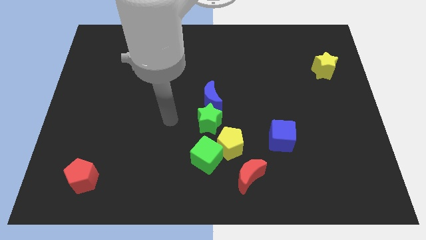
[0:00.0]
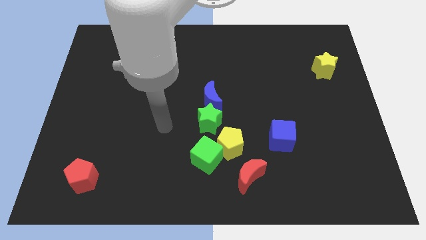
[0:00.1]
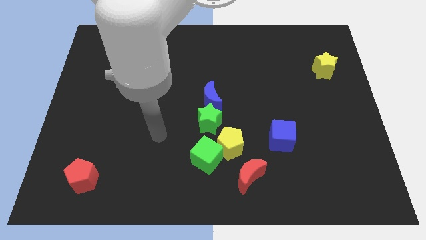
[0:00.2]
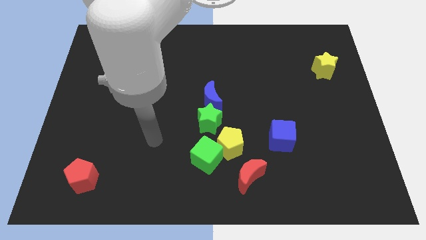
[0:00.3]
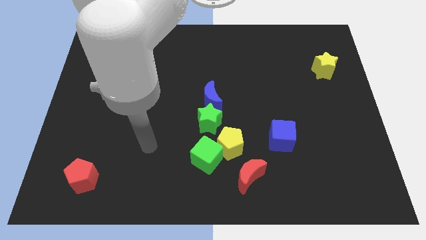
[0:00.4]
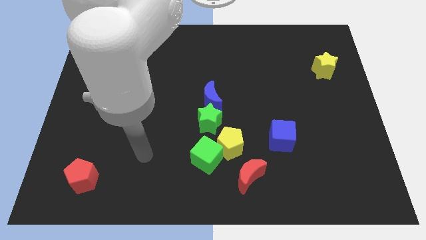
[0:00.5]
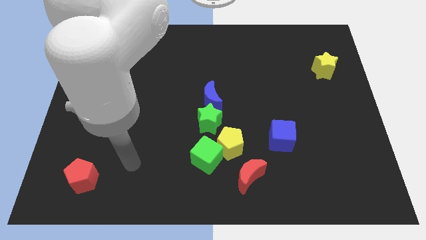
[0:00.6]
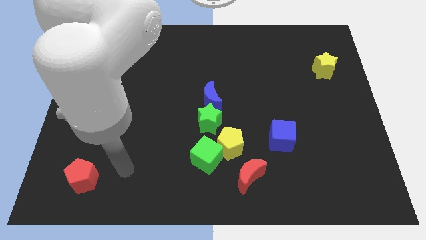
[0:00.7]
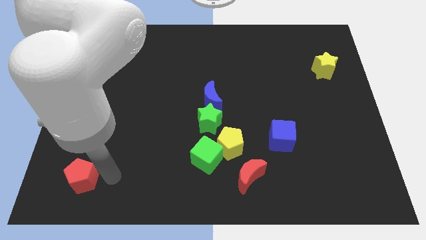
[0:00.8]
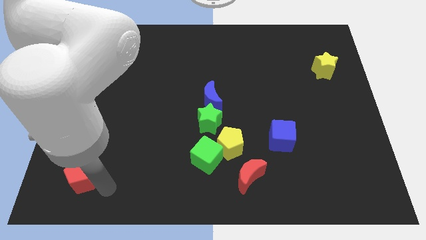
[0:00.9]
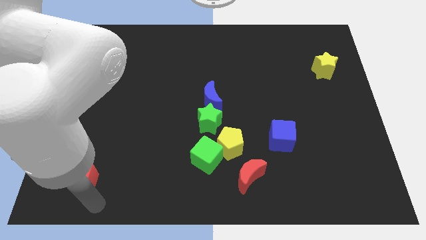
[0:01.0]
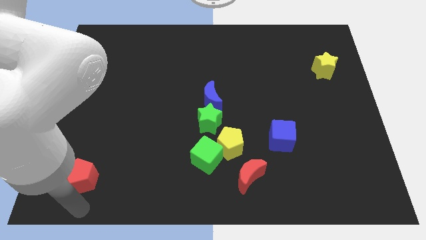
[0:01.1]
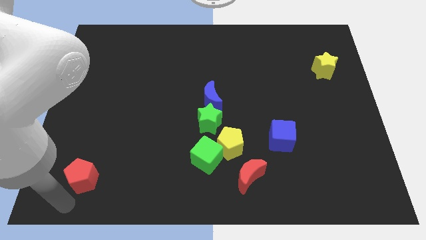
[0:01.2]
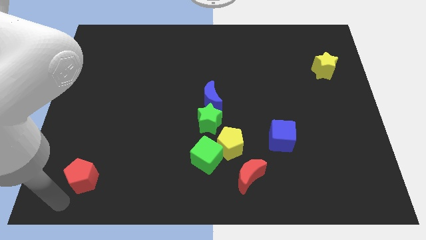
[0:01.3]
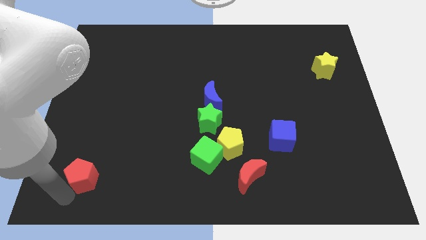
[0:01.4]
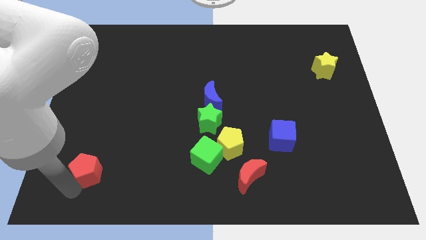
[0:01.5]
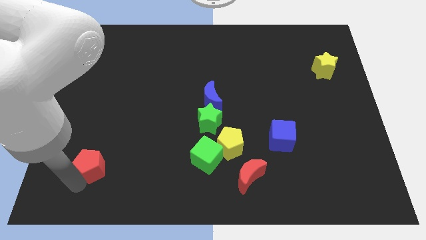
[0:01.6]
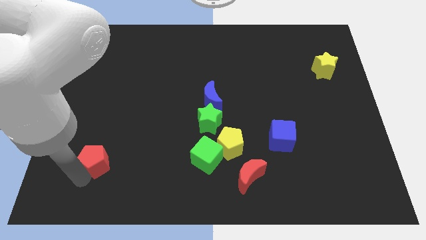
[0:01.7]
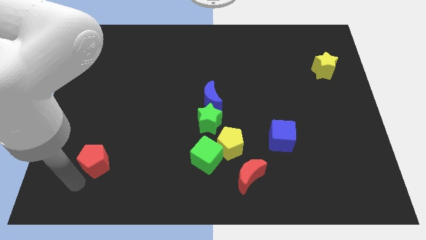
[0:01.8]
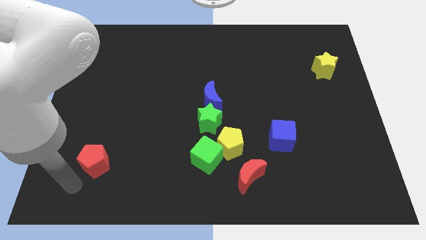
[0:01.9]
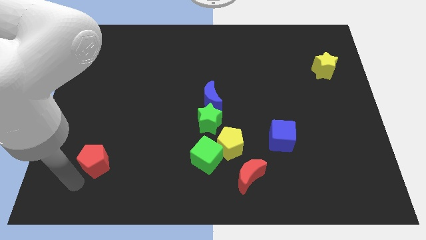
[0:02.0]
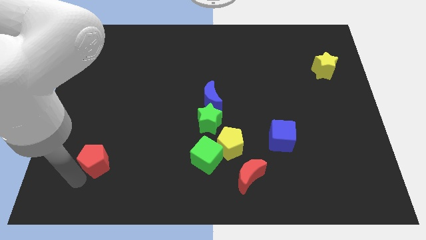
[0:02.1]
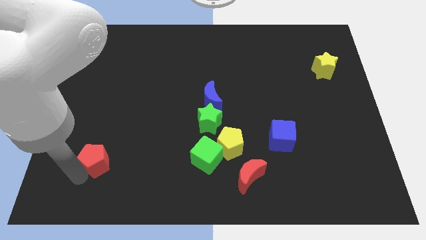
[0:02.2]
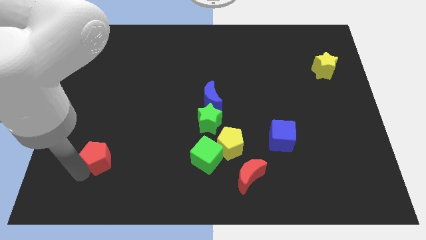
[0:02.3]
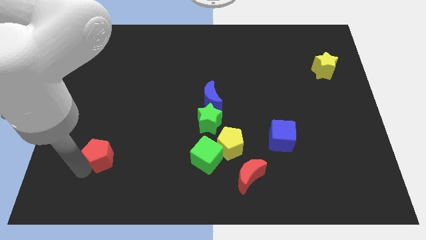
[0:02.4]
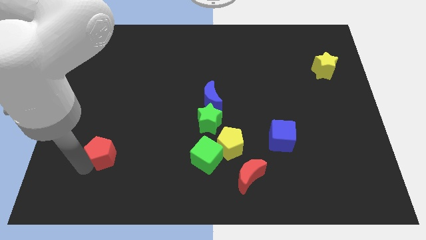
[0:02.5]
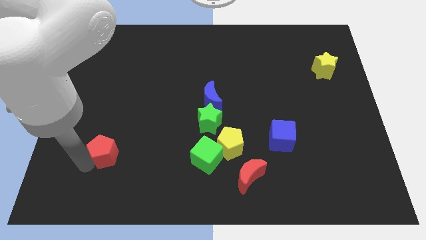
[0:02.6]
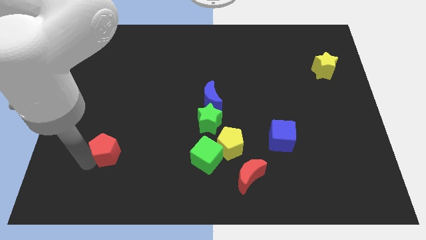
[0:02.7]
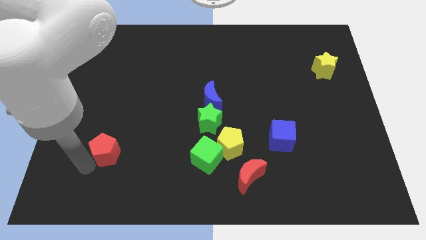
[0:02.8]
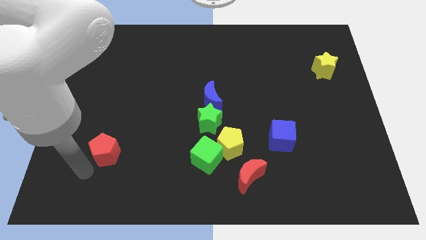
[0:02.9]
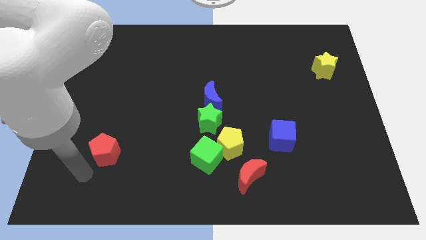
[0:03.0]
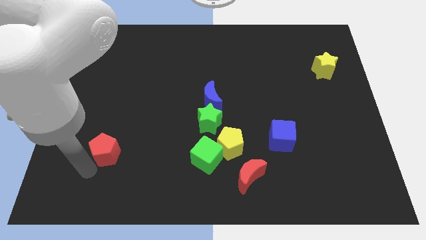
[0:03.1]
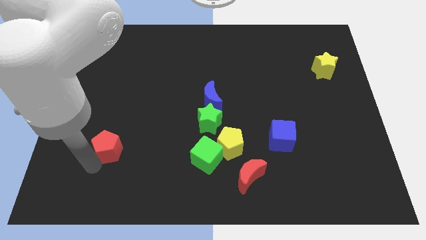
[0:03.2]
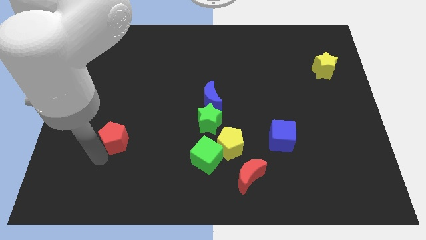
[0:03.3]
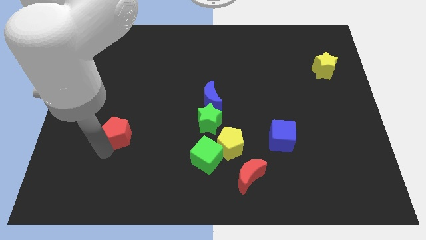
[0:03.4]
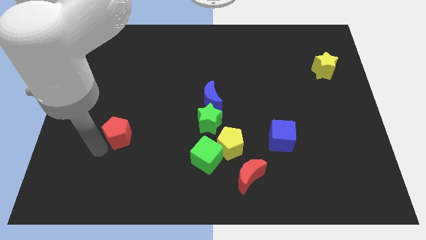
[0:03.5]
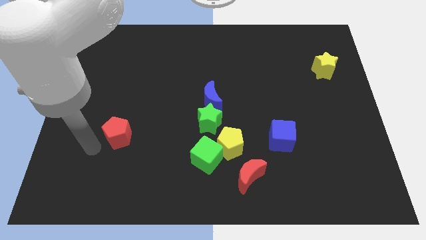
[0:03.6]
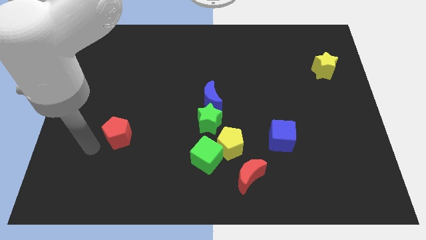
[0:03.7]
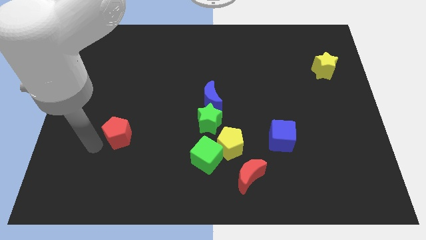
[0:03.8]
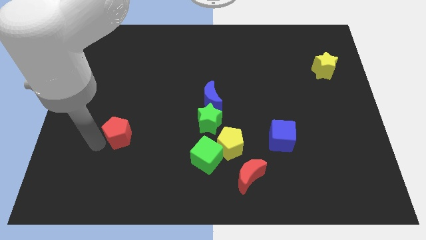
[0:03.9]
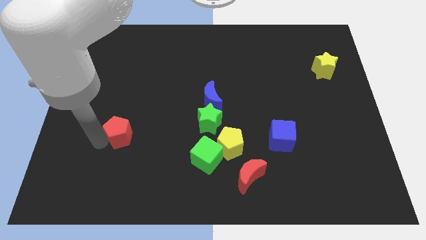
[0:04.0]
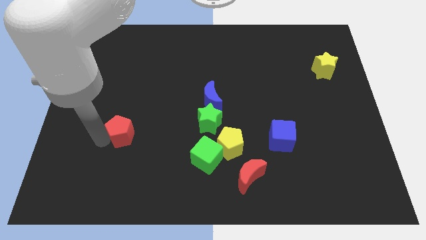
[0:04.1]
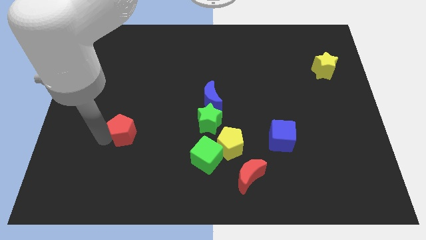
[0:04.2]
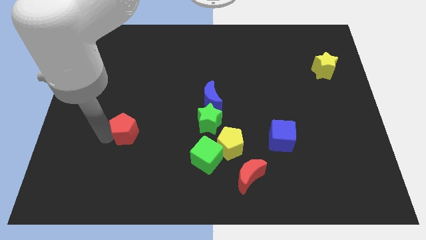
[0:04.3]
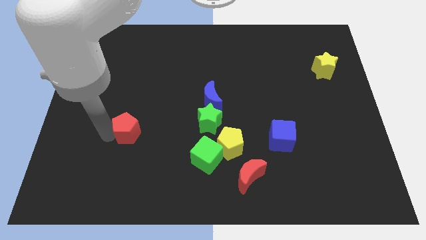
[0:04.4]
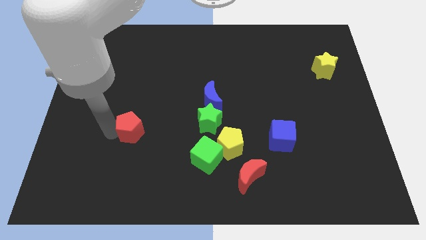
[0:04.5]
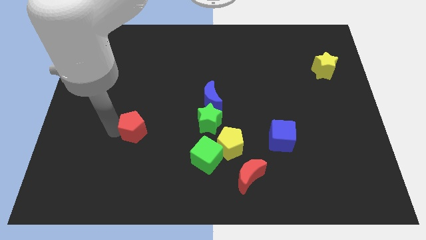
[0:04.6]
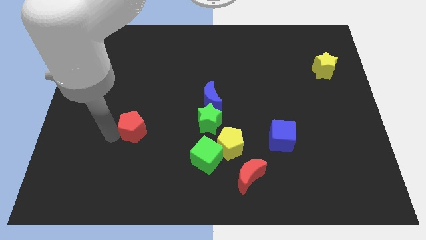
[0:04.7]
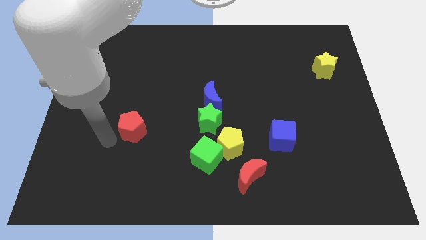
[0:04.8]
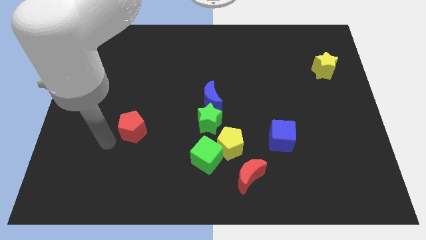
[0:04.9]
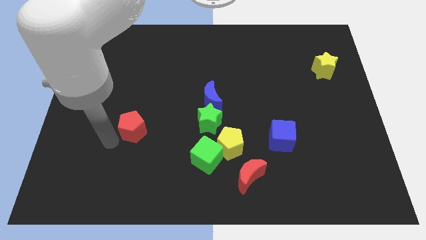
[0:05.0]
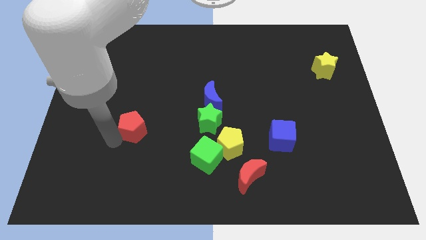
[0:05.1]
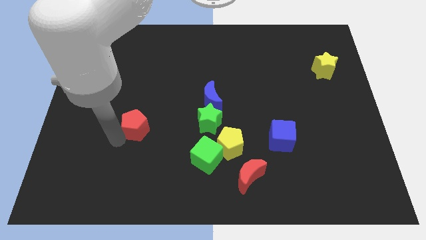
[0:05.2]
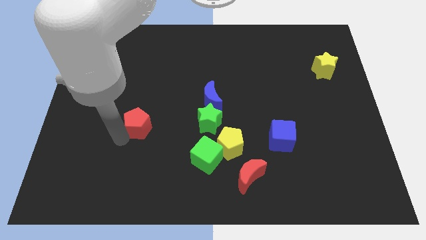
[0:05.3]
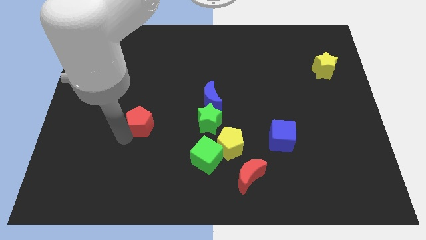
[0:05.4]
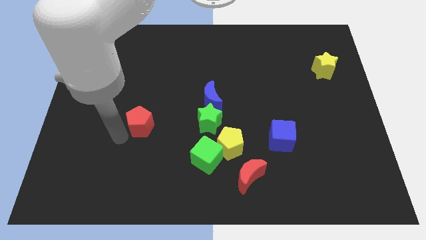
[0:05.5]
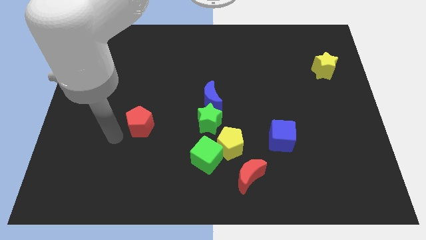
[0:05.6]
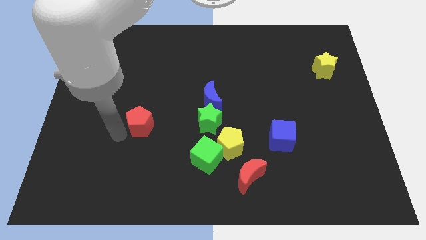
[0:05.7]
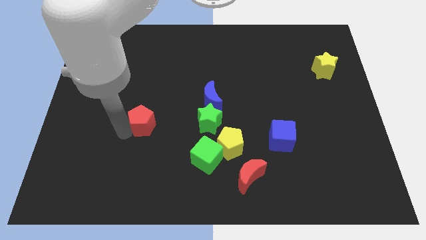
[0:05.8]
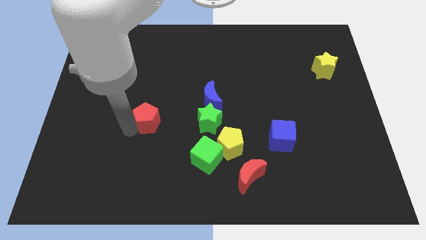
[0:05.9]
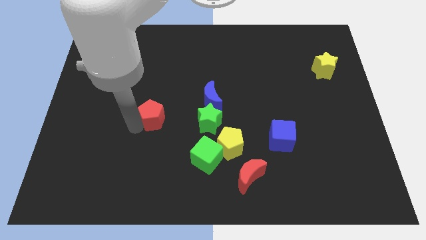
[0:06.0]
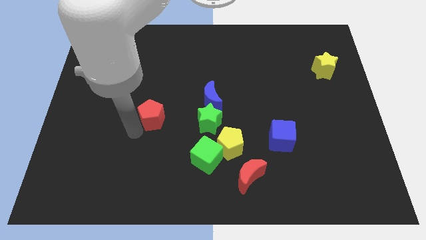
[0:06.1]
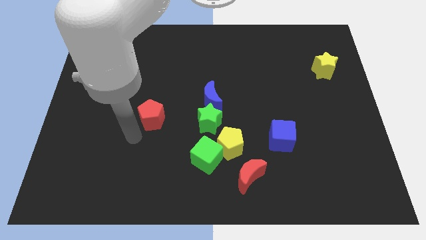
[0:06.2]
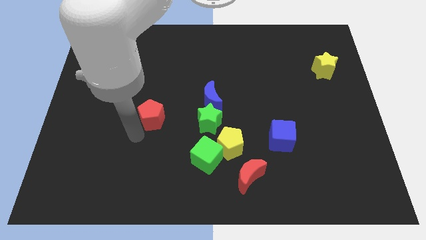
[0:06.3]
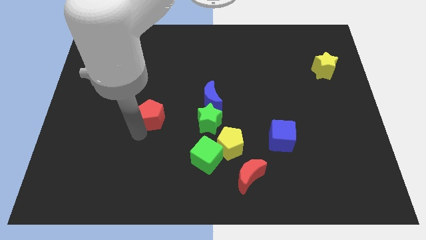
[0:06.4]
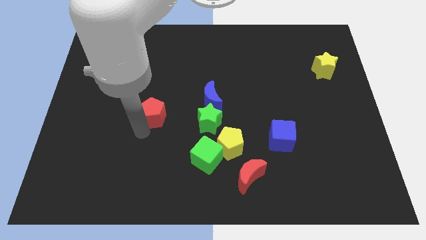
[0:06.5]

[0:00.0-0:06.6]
slide the red pentagon to the left side of the blue moon

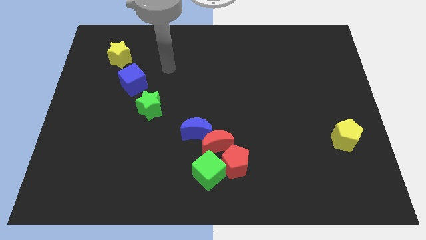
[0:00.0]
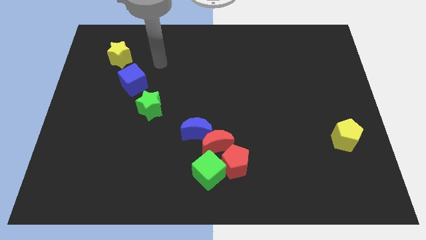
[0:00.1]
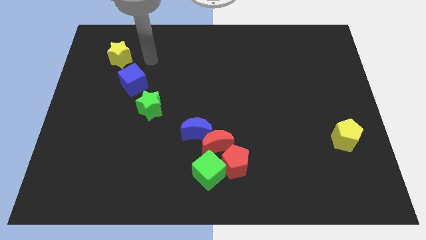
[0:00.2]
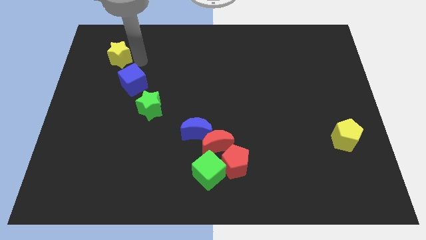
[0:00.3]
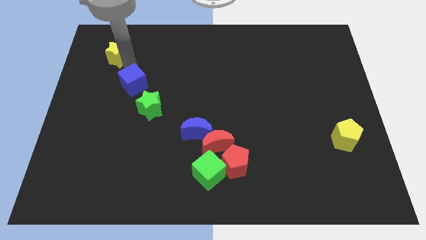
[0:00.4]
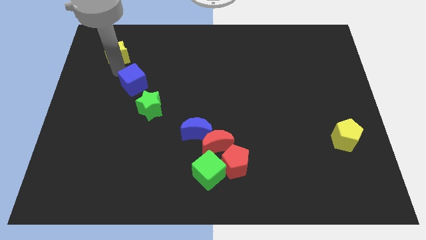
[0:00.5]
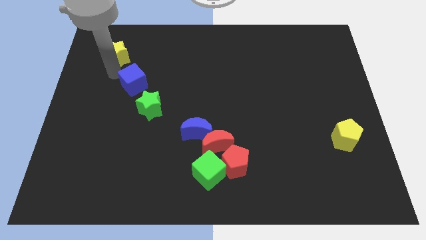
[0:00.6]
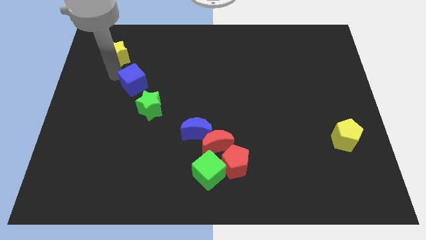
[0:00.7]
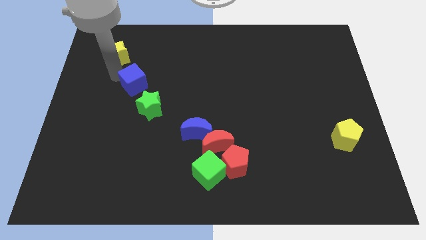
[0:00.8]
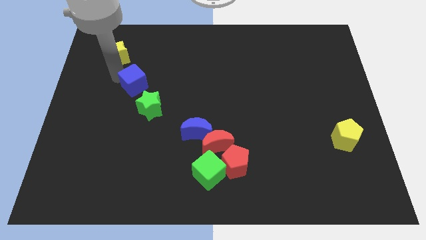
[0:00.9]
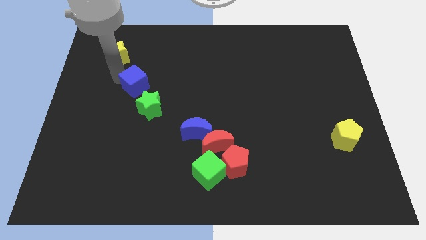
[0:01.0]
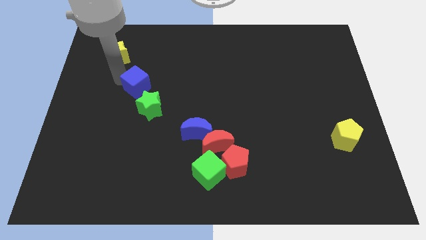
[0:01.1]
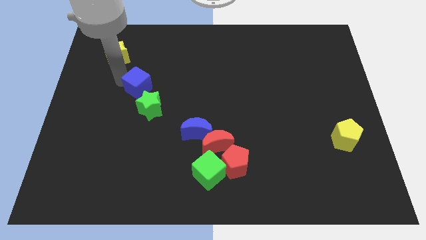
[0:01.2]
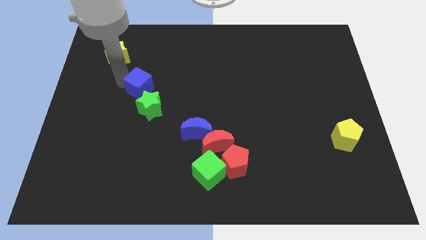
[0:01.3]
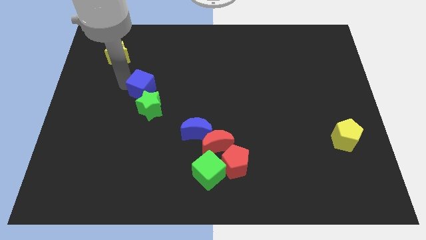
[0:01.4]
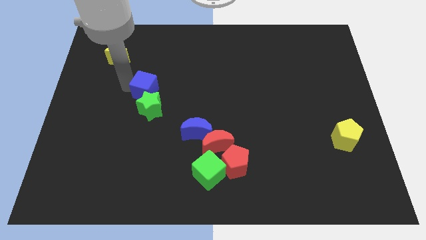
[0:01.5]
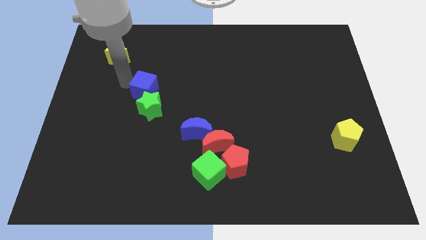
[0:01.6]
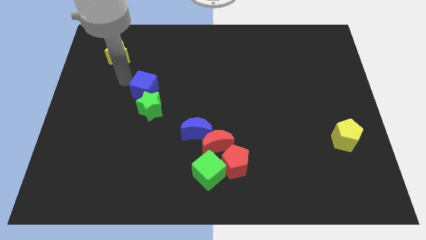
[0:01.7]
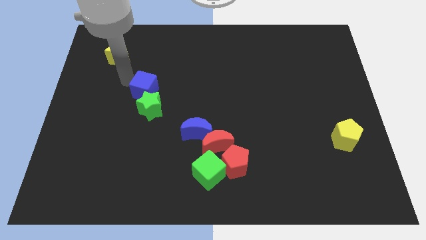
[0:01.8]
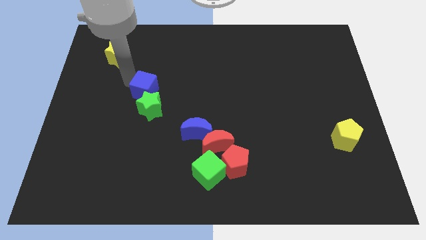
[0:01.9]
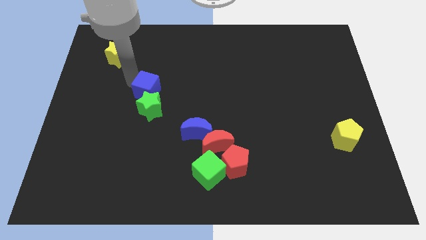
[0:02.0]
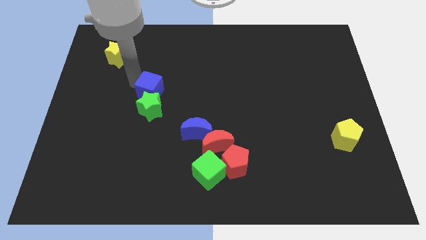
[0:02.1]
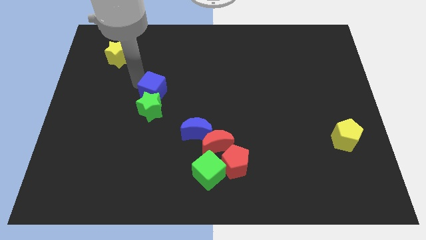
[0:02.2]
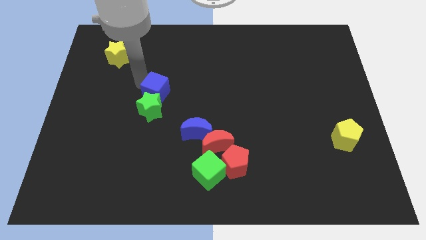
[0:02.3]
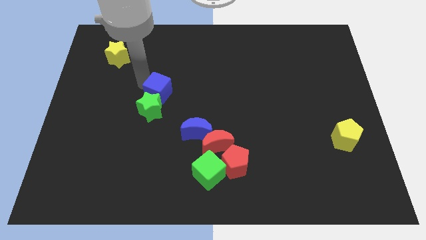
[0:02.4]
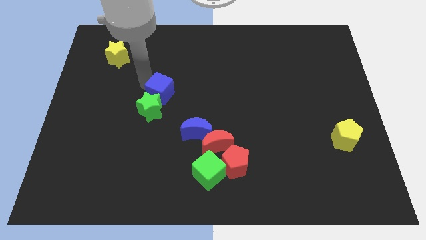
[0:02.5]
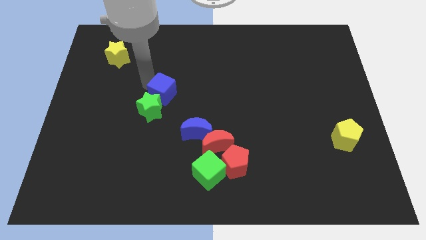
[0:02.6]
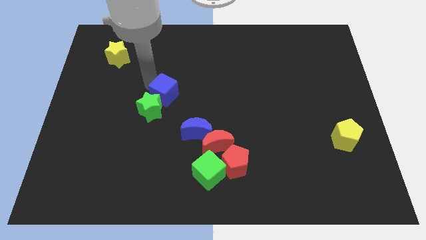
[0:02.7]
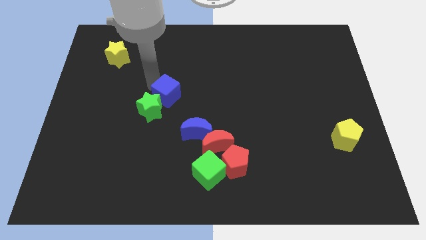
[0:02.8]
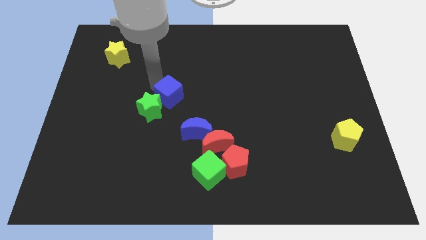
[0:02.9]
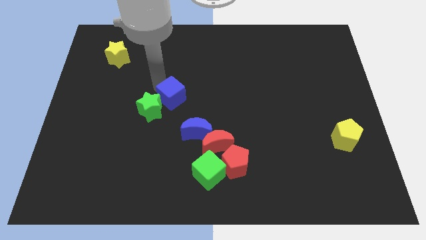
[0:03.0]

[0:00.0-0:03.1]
push the blue cube diagonally up and to the left of the blue moon
